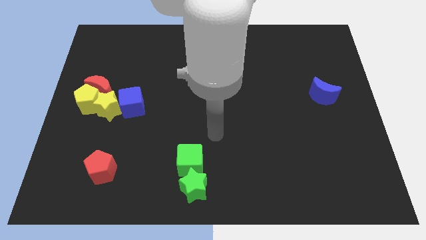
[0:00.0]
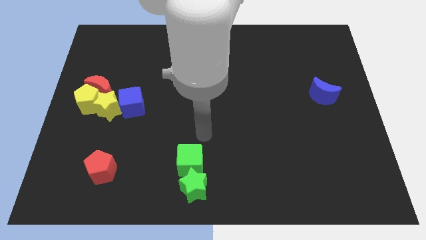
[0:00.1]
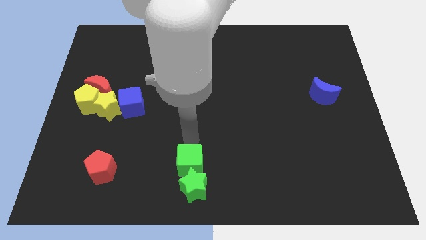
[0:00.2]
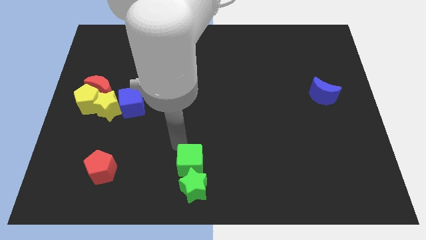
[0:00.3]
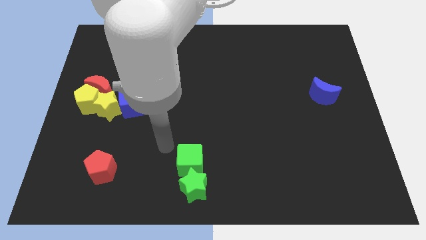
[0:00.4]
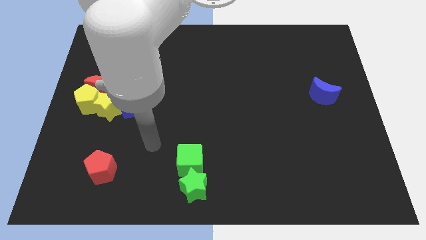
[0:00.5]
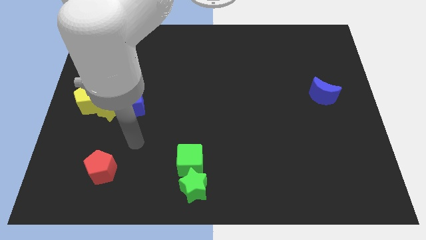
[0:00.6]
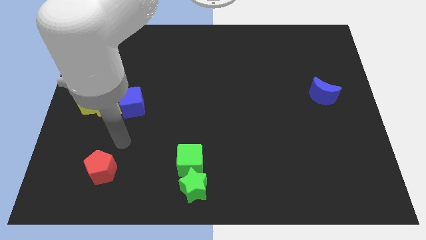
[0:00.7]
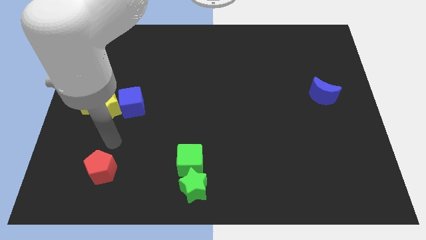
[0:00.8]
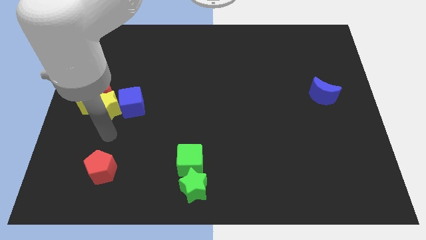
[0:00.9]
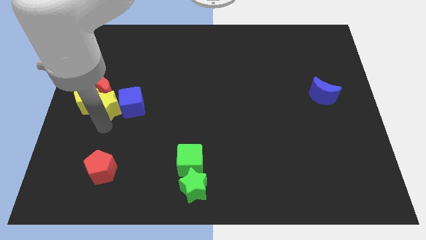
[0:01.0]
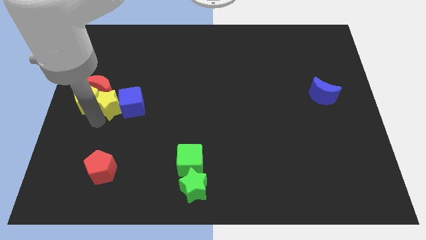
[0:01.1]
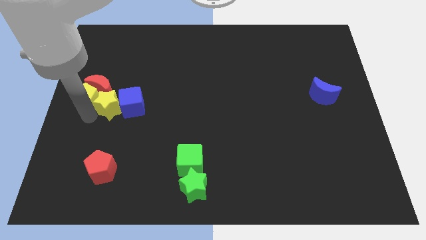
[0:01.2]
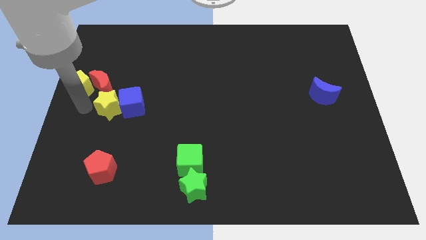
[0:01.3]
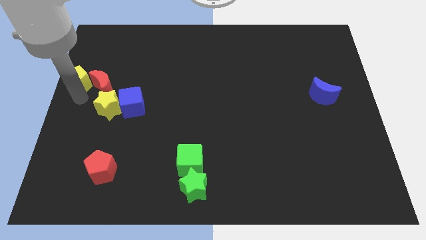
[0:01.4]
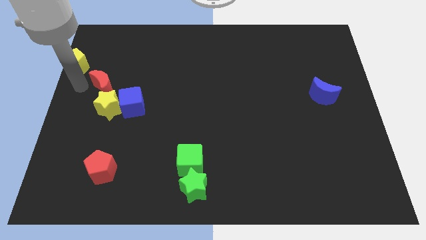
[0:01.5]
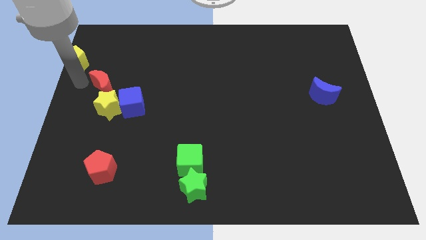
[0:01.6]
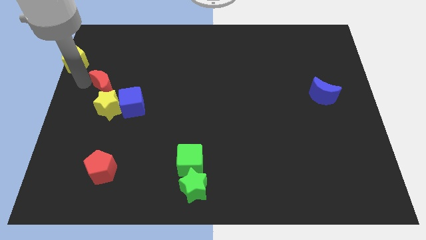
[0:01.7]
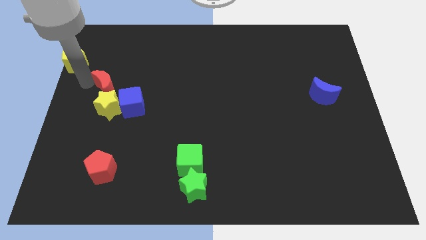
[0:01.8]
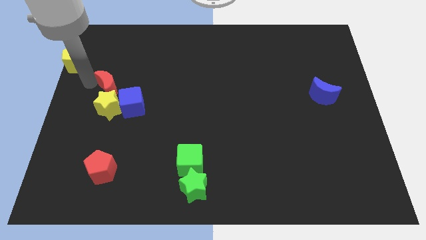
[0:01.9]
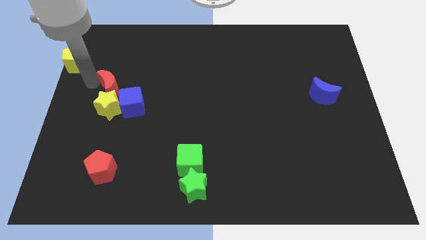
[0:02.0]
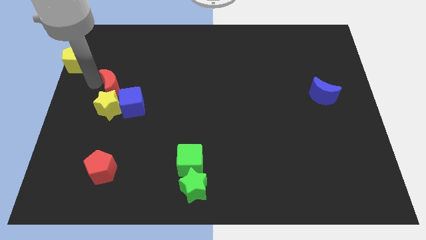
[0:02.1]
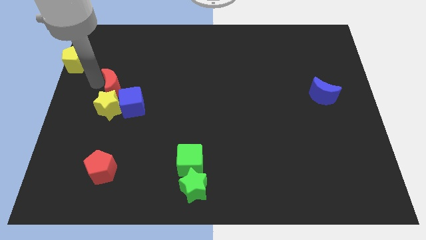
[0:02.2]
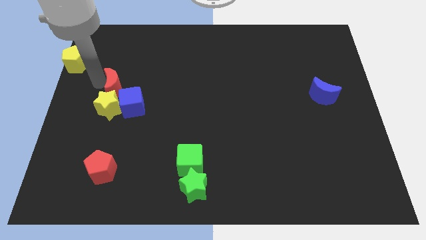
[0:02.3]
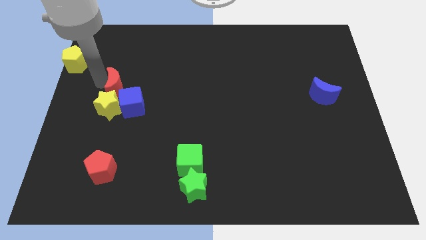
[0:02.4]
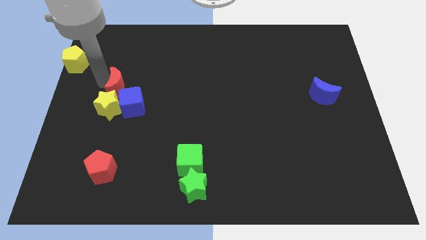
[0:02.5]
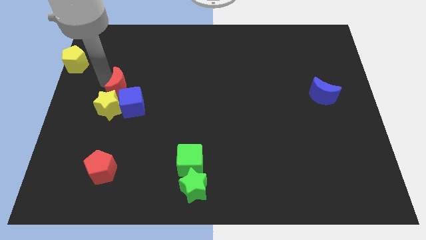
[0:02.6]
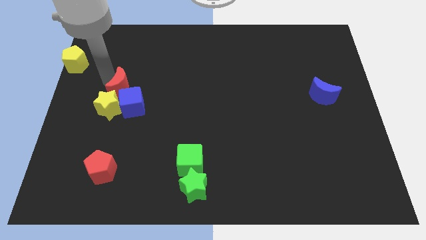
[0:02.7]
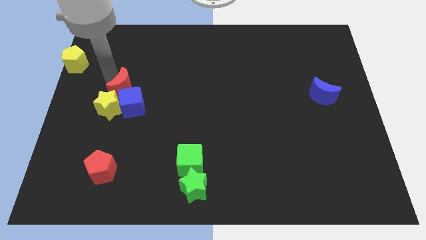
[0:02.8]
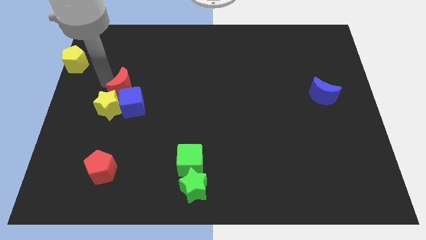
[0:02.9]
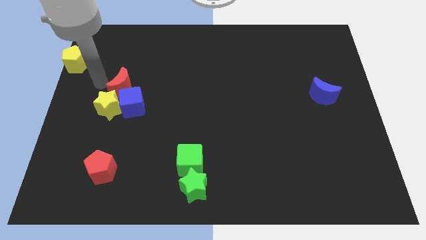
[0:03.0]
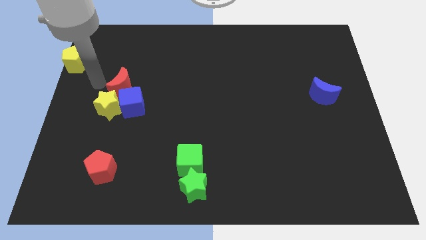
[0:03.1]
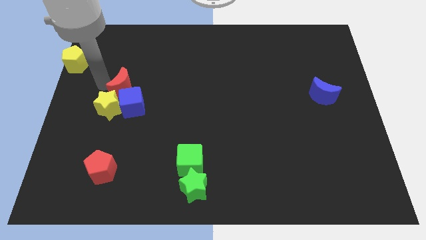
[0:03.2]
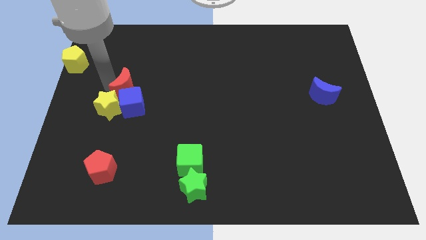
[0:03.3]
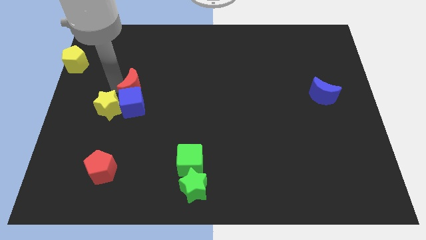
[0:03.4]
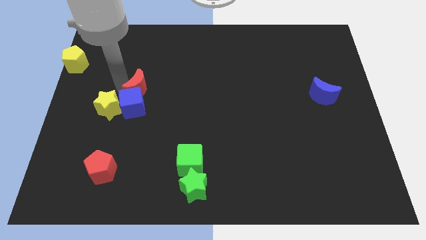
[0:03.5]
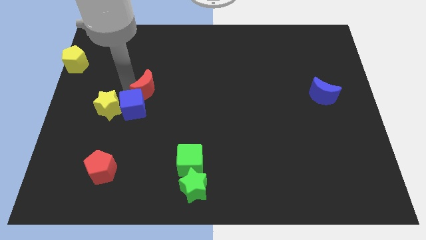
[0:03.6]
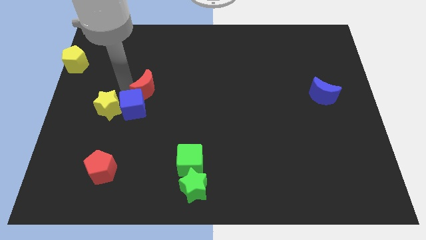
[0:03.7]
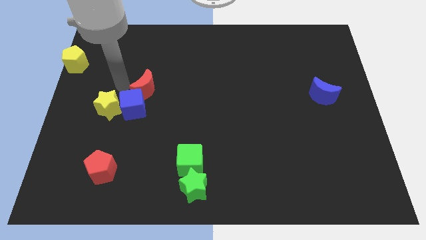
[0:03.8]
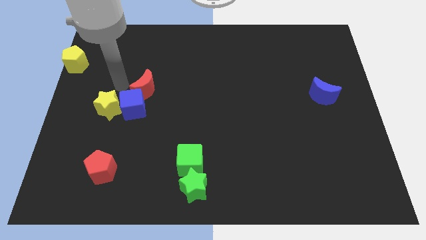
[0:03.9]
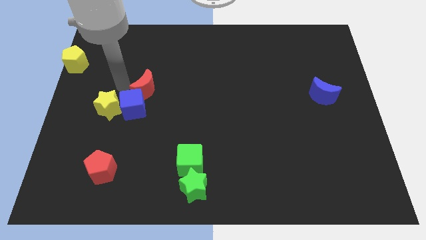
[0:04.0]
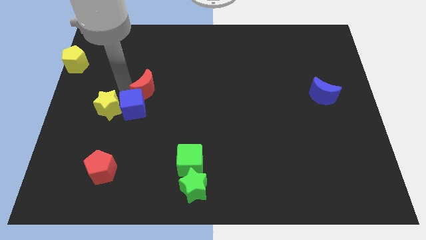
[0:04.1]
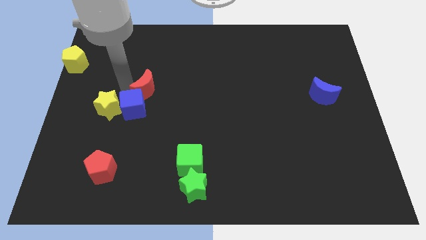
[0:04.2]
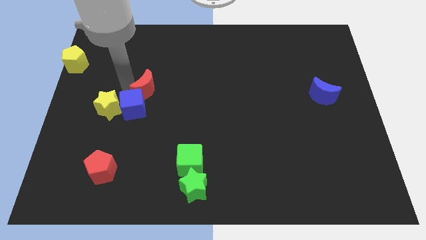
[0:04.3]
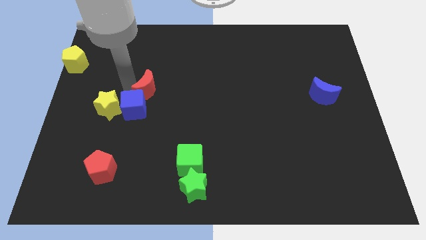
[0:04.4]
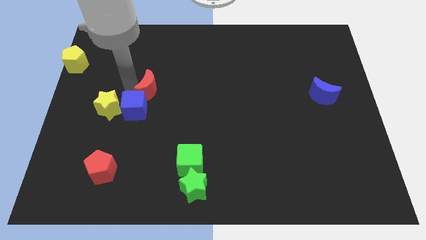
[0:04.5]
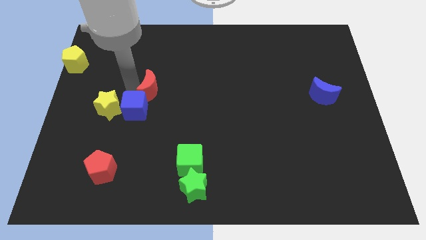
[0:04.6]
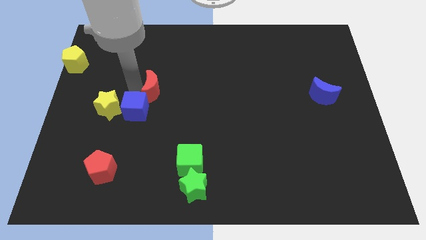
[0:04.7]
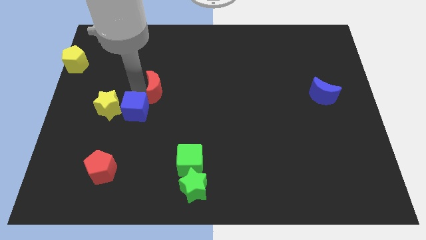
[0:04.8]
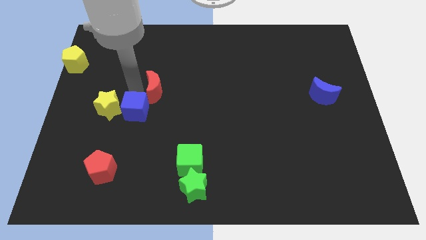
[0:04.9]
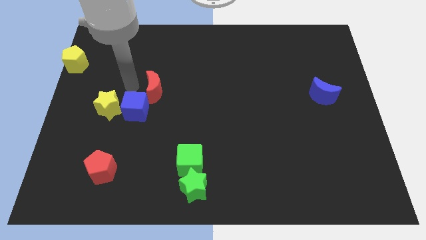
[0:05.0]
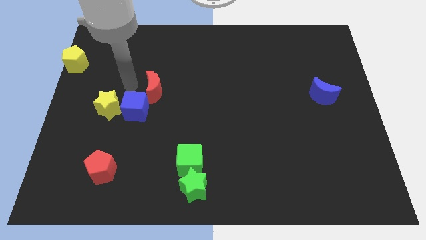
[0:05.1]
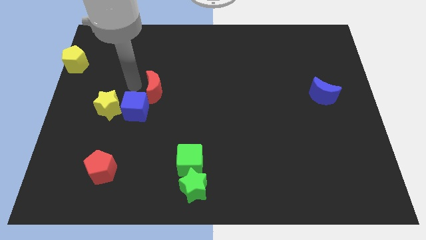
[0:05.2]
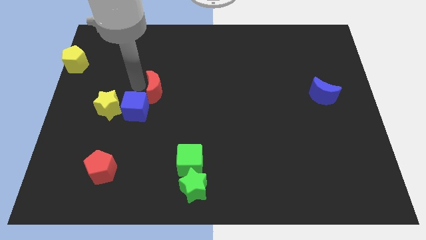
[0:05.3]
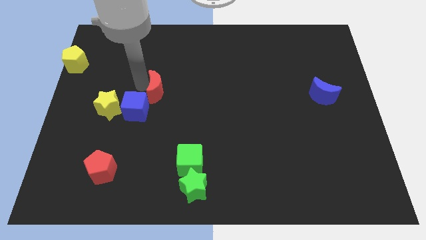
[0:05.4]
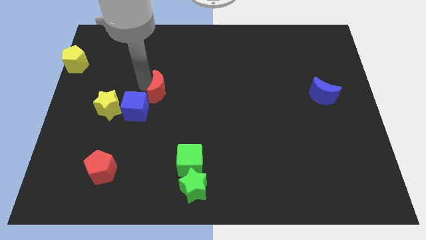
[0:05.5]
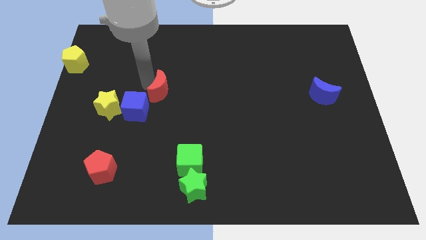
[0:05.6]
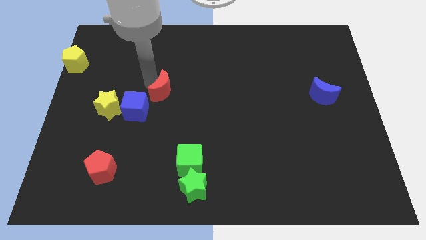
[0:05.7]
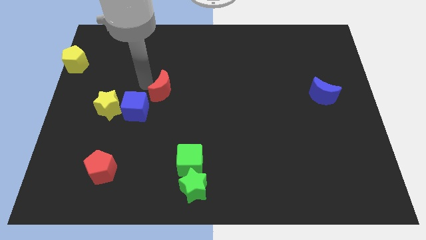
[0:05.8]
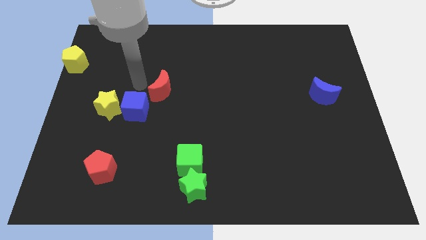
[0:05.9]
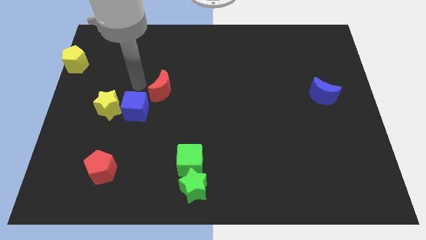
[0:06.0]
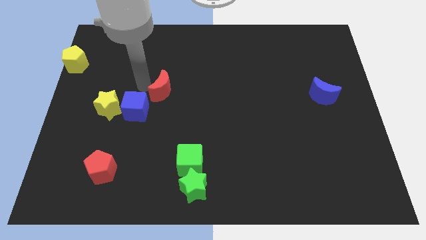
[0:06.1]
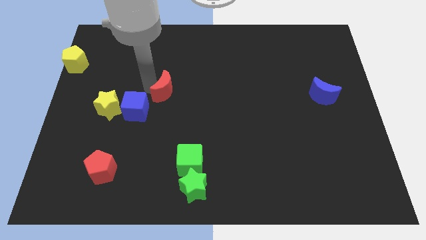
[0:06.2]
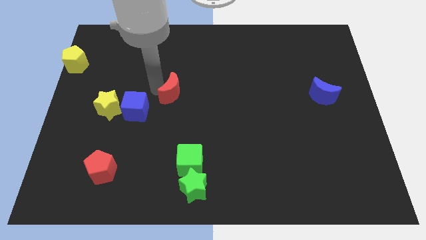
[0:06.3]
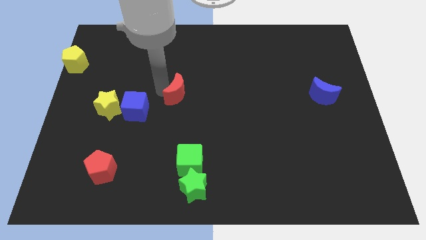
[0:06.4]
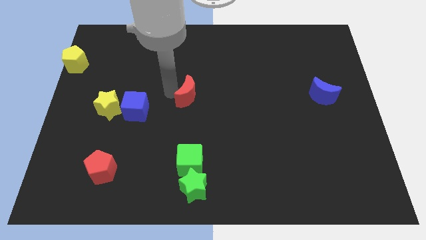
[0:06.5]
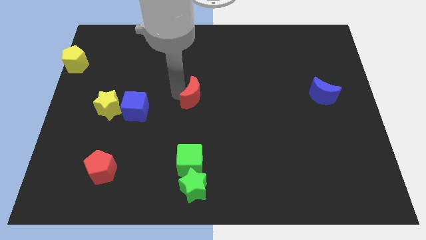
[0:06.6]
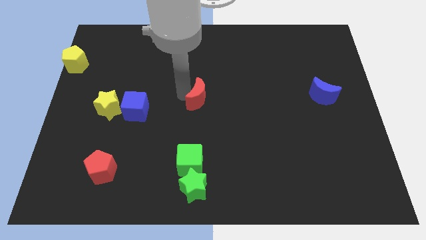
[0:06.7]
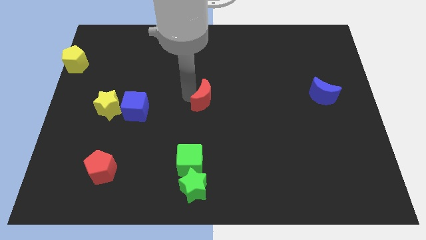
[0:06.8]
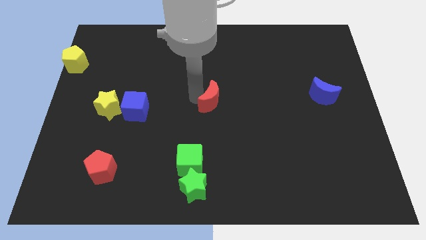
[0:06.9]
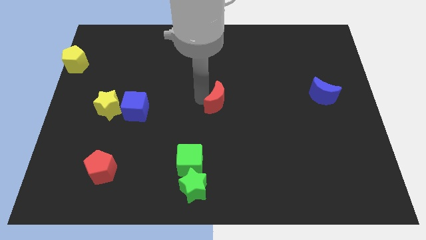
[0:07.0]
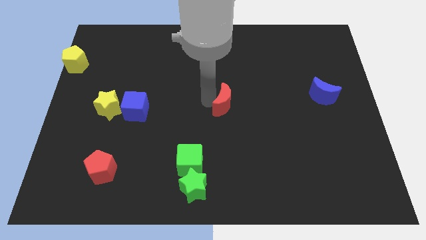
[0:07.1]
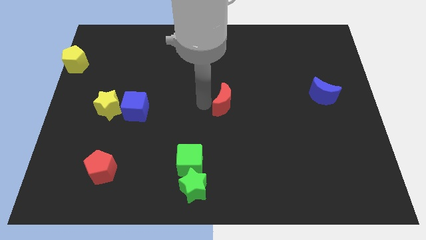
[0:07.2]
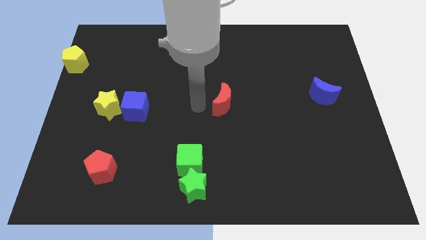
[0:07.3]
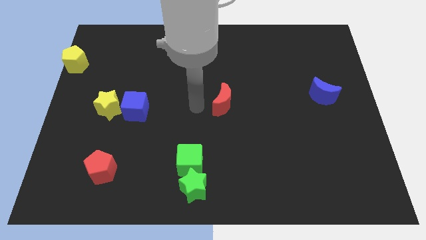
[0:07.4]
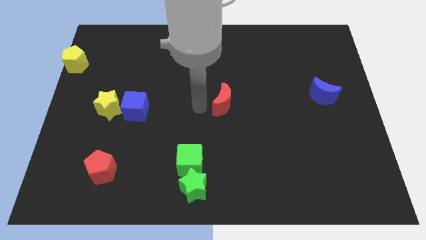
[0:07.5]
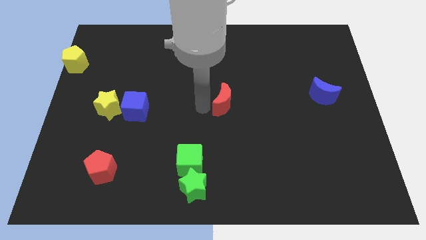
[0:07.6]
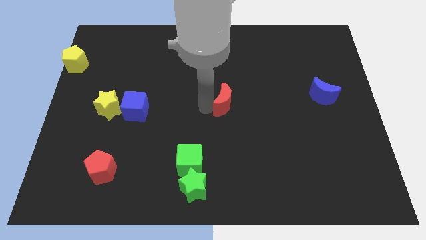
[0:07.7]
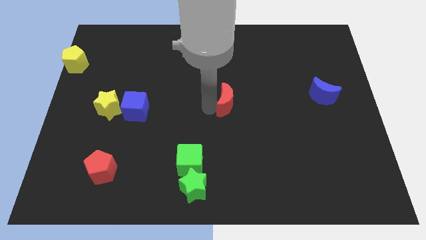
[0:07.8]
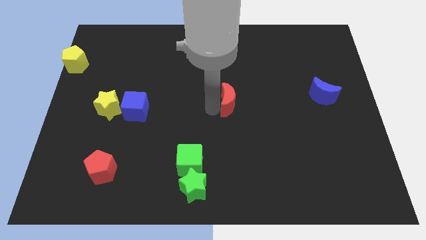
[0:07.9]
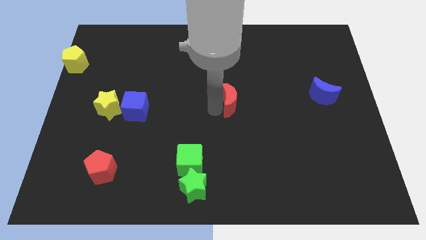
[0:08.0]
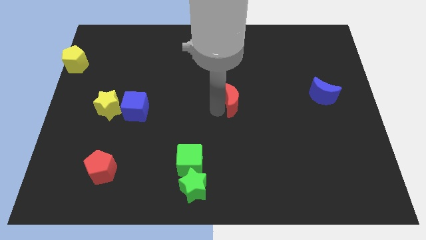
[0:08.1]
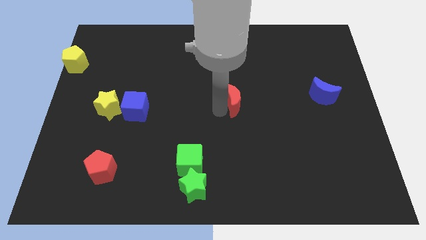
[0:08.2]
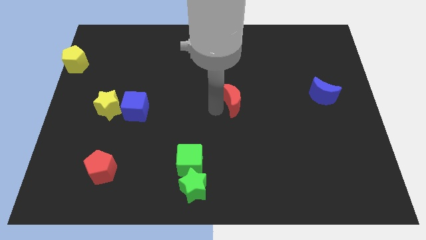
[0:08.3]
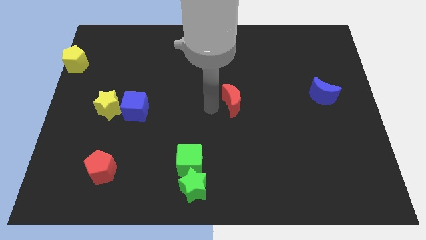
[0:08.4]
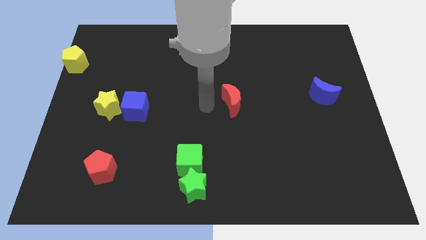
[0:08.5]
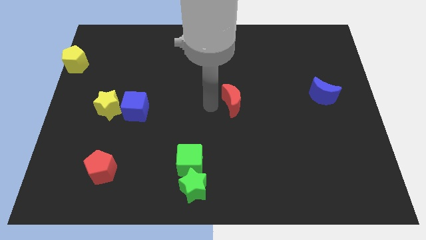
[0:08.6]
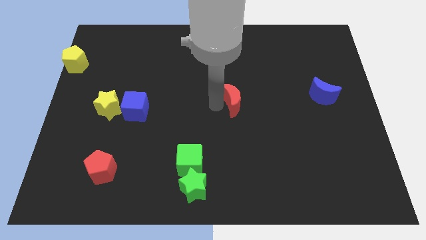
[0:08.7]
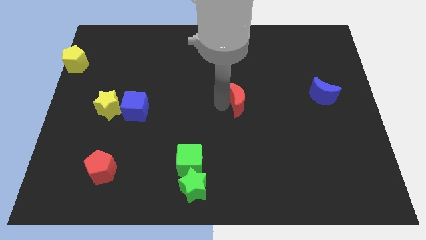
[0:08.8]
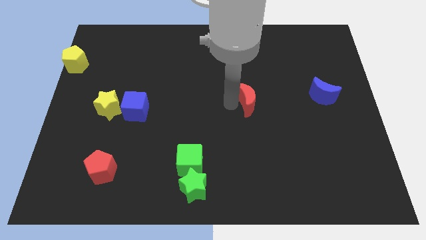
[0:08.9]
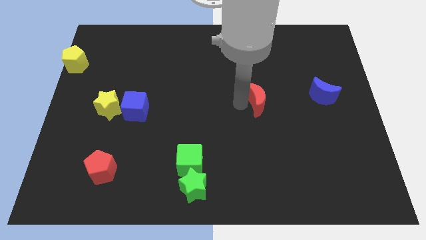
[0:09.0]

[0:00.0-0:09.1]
slide the red moon to the left of the blue moon
